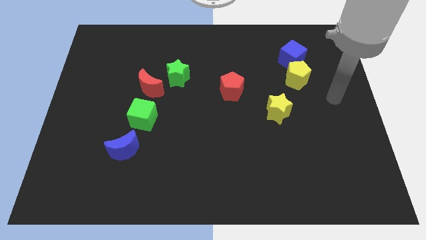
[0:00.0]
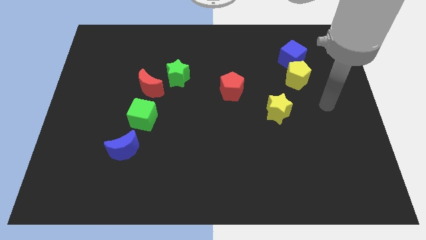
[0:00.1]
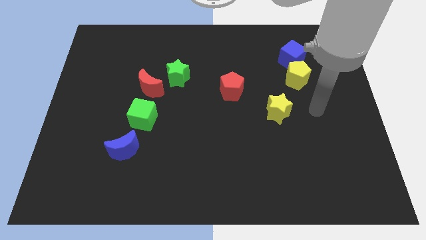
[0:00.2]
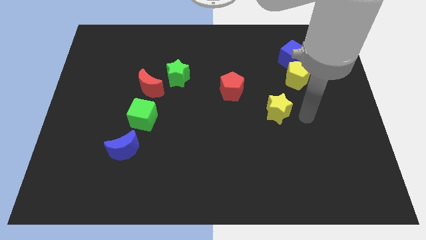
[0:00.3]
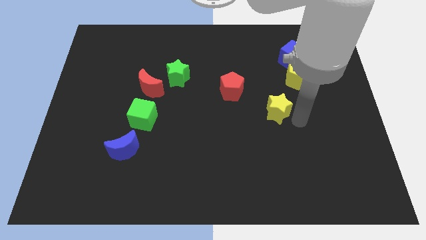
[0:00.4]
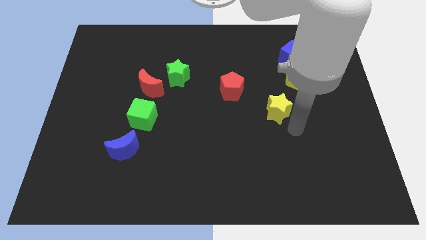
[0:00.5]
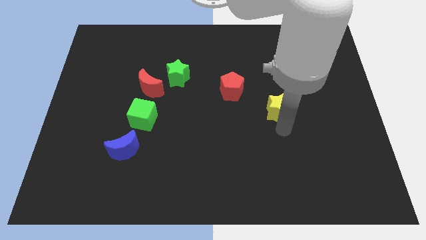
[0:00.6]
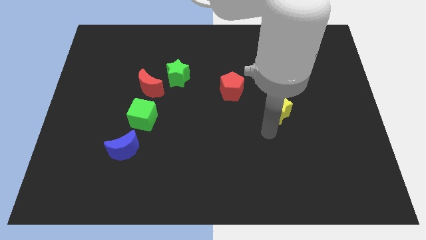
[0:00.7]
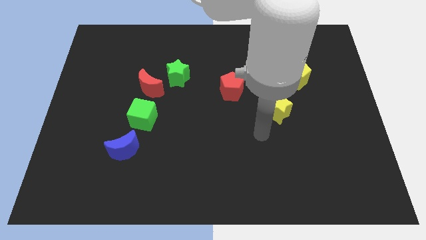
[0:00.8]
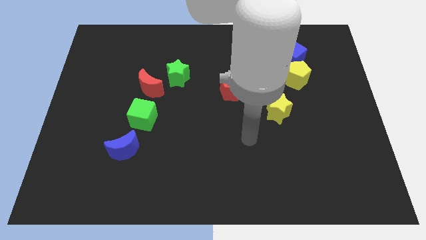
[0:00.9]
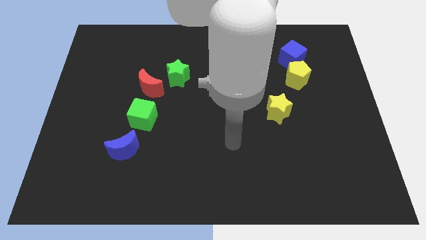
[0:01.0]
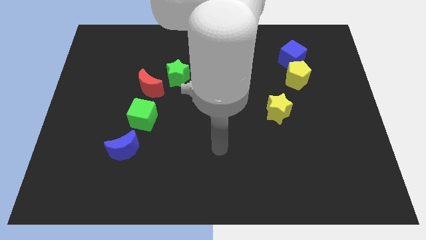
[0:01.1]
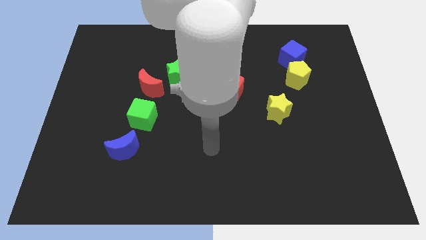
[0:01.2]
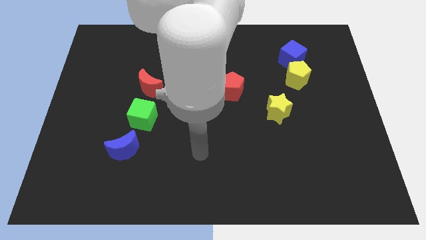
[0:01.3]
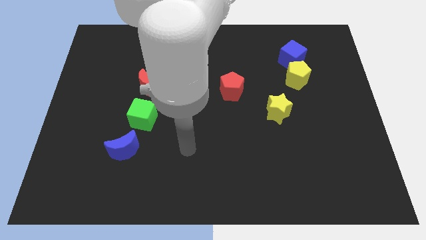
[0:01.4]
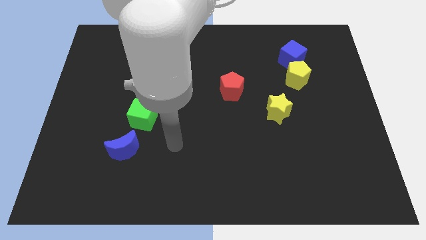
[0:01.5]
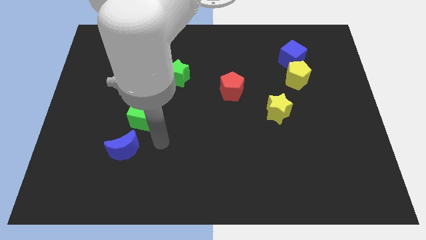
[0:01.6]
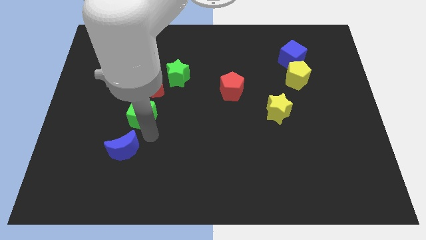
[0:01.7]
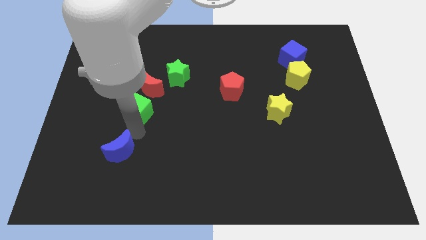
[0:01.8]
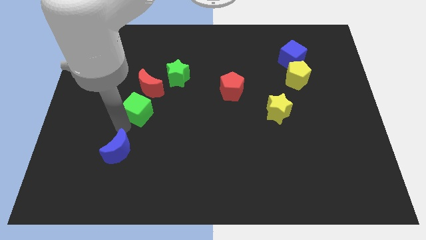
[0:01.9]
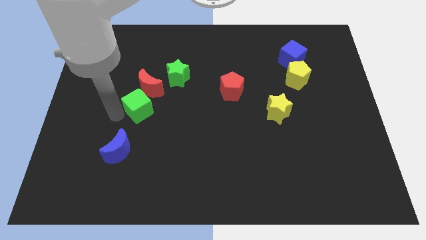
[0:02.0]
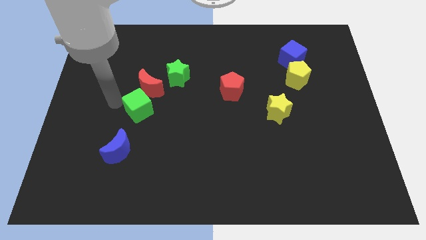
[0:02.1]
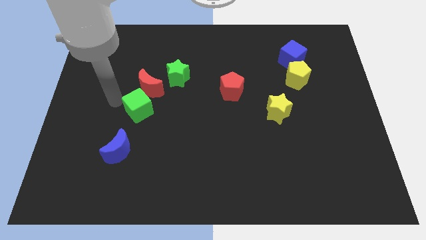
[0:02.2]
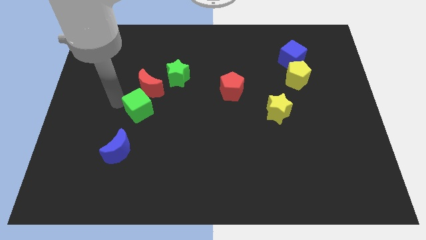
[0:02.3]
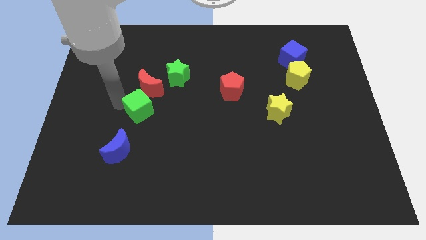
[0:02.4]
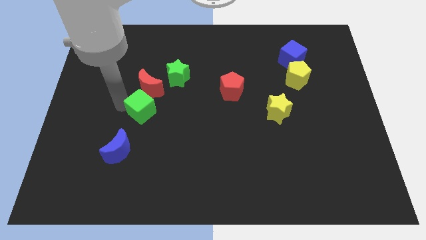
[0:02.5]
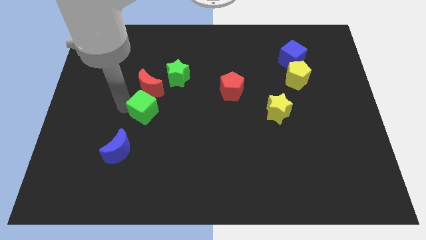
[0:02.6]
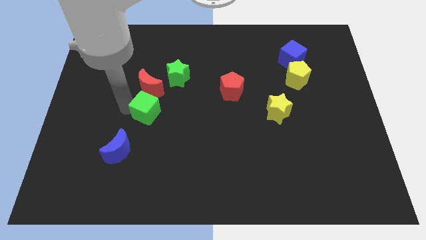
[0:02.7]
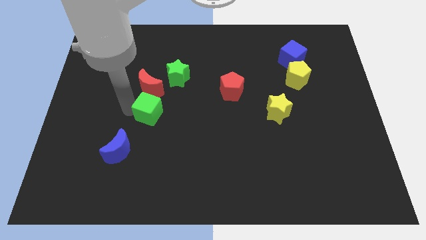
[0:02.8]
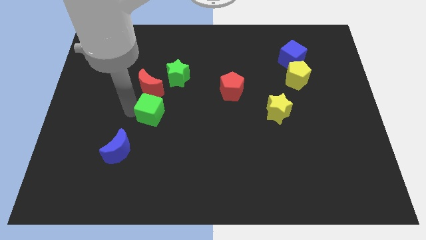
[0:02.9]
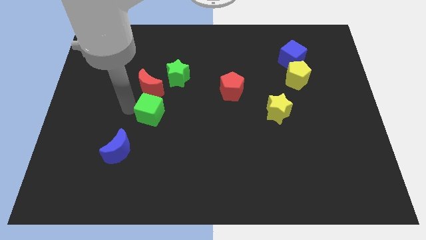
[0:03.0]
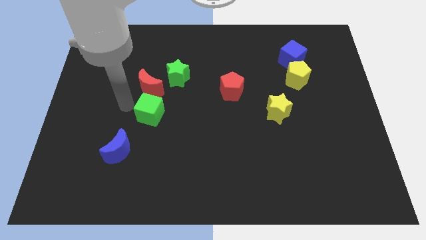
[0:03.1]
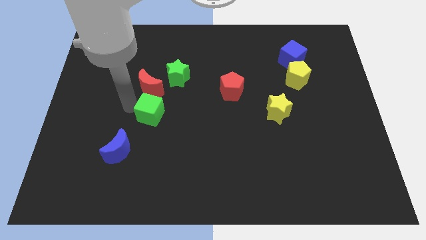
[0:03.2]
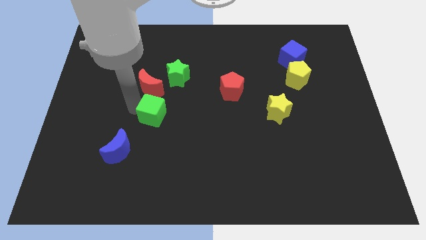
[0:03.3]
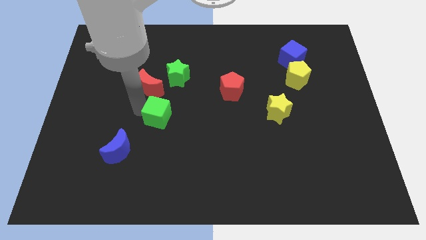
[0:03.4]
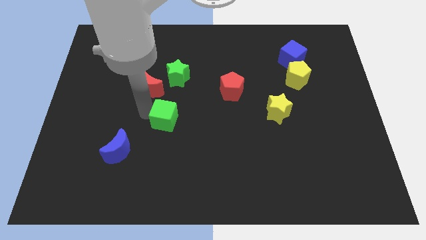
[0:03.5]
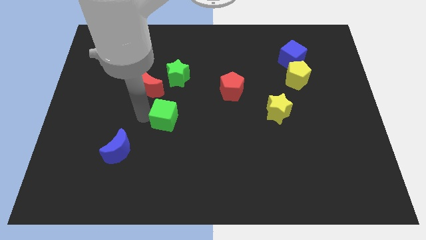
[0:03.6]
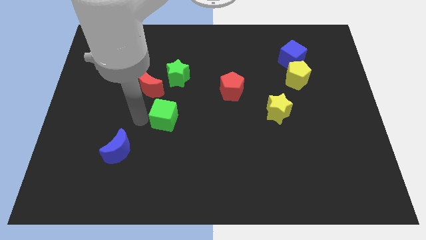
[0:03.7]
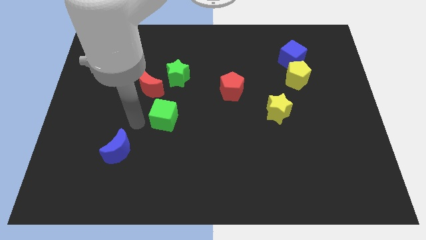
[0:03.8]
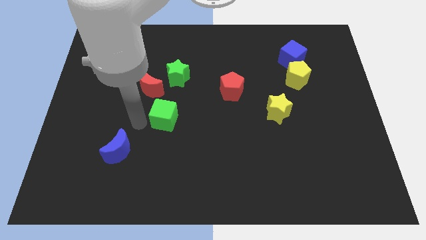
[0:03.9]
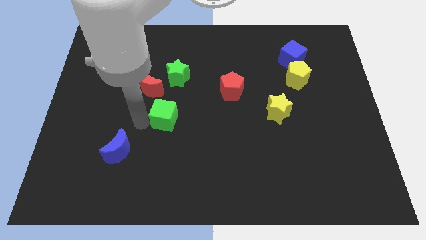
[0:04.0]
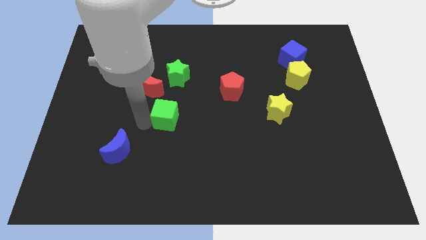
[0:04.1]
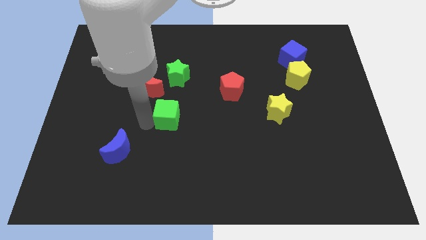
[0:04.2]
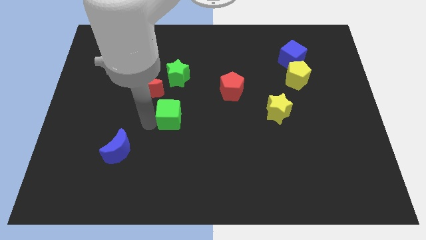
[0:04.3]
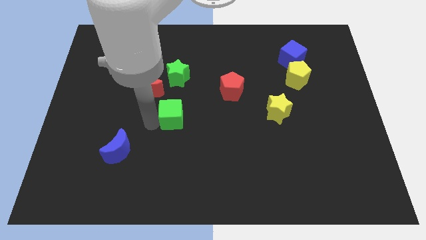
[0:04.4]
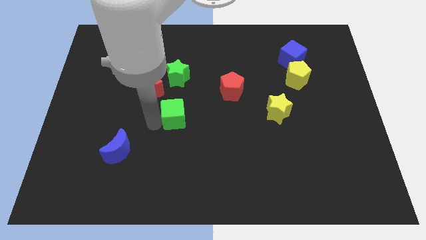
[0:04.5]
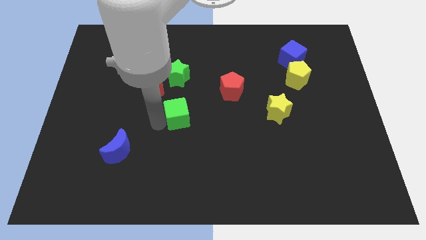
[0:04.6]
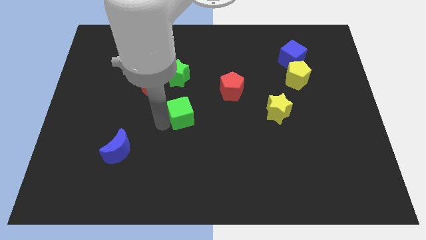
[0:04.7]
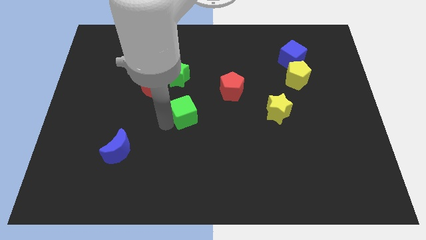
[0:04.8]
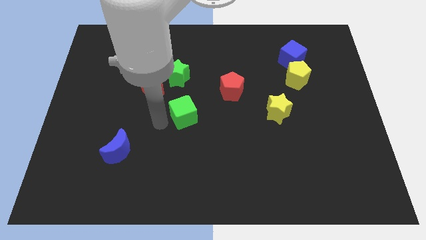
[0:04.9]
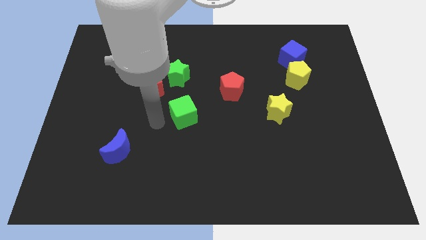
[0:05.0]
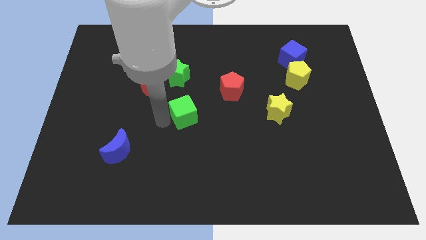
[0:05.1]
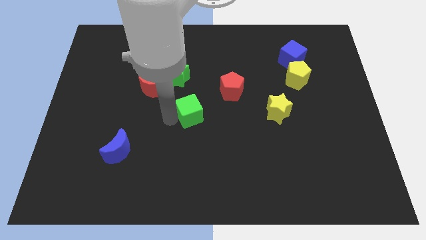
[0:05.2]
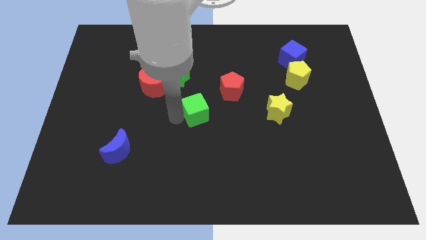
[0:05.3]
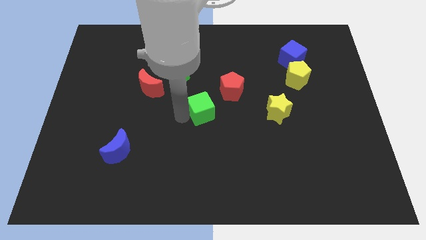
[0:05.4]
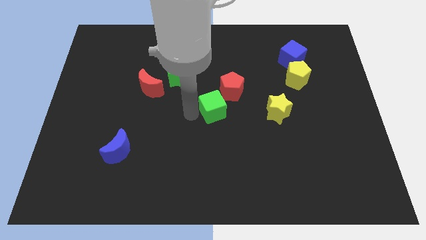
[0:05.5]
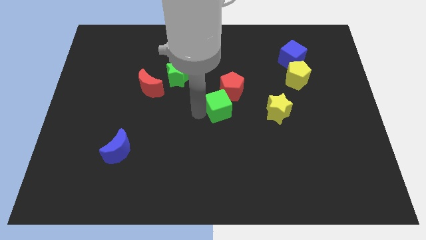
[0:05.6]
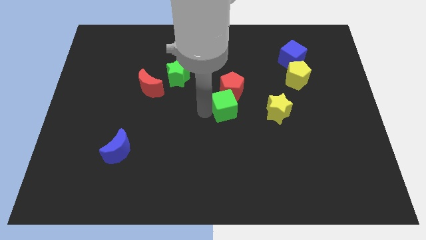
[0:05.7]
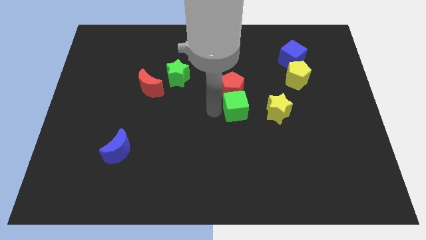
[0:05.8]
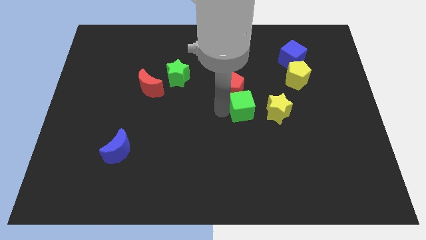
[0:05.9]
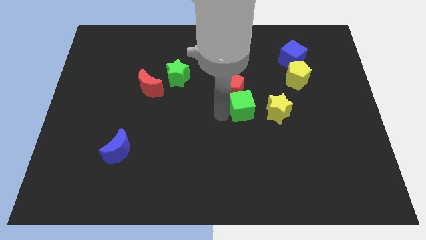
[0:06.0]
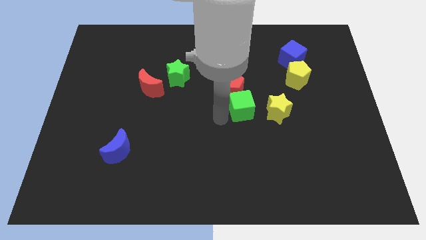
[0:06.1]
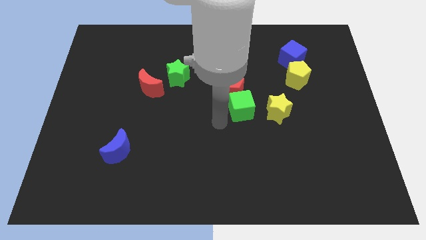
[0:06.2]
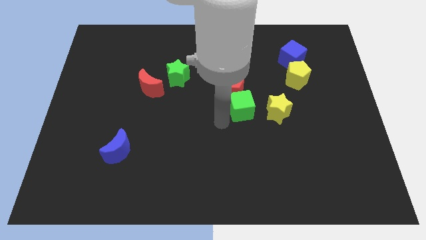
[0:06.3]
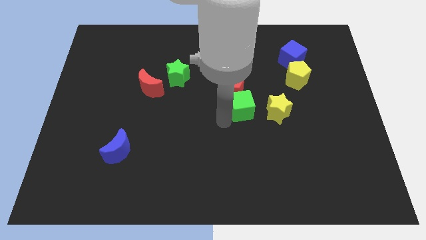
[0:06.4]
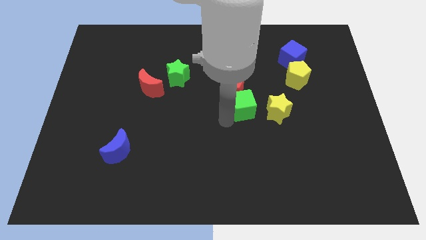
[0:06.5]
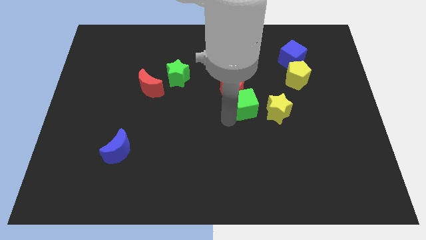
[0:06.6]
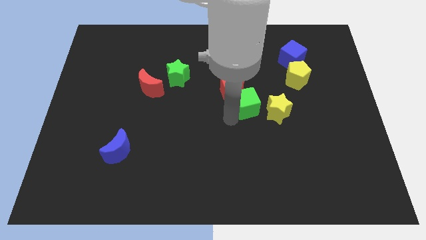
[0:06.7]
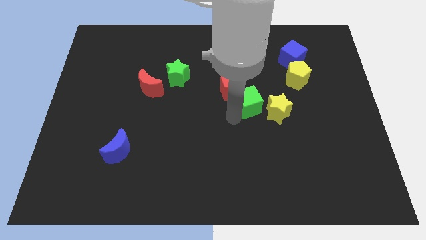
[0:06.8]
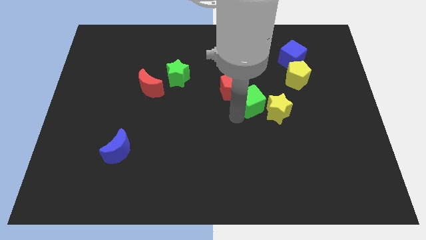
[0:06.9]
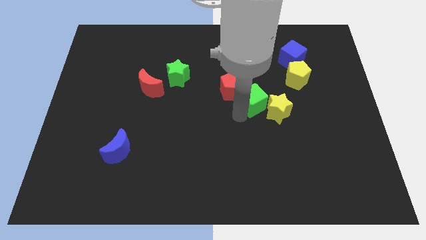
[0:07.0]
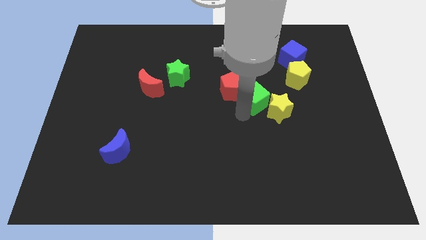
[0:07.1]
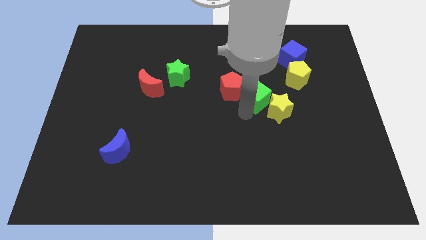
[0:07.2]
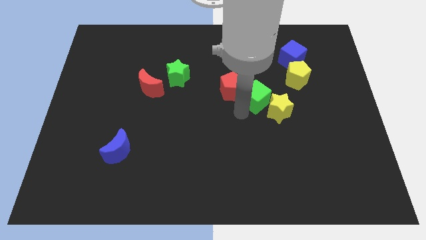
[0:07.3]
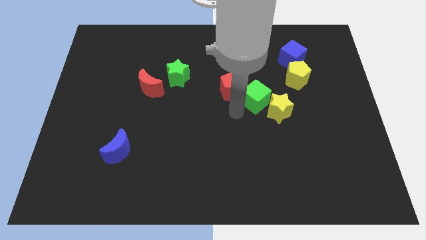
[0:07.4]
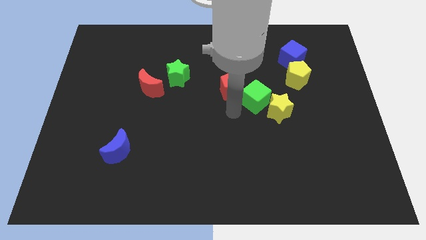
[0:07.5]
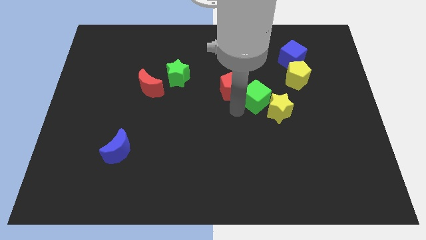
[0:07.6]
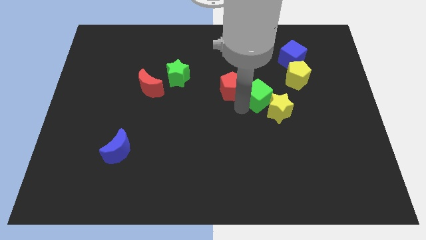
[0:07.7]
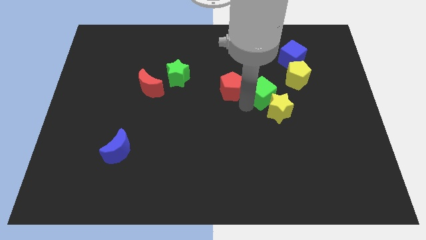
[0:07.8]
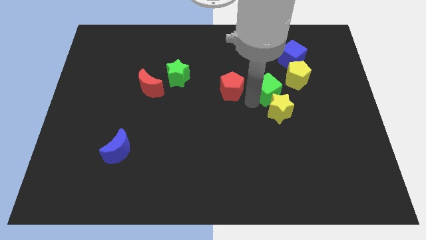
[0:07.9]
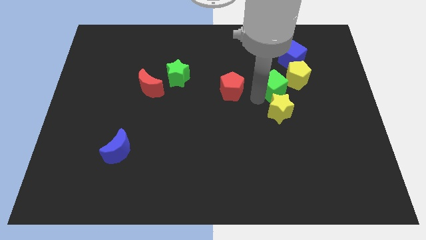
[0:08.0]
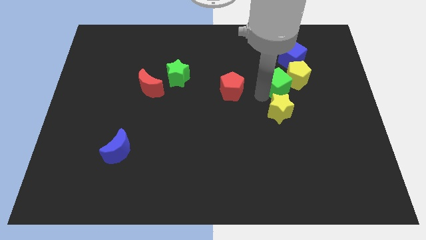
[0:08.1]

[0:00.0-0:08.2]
put the green cube close to the yellow pentagon
